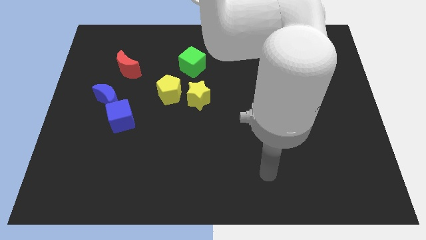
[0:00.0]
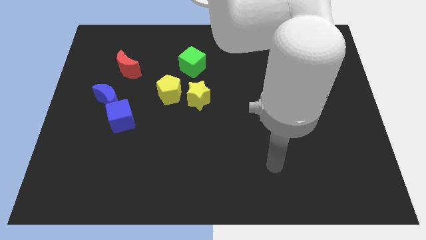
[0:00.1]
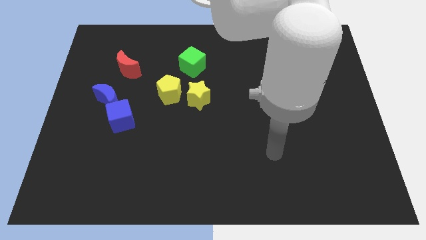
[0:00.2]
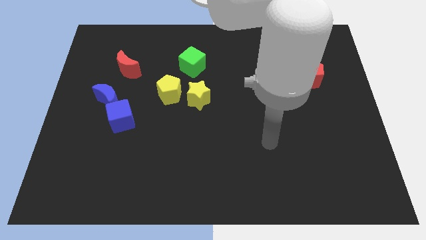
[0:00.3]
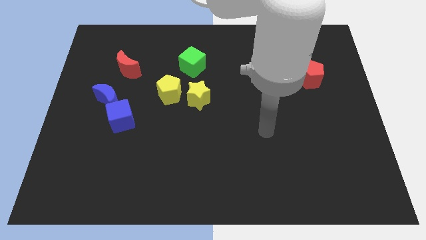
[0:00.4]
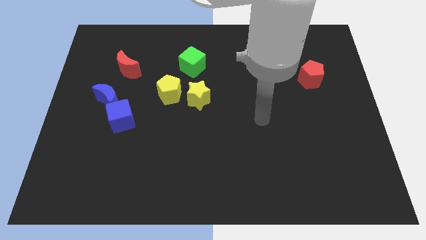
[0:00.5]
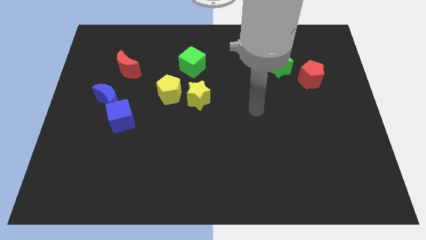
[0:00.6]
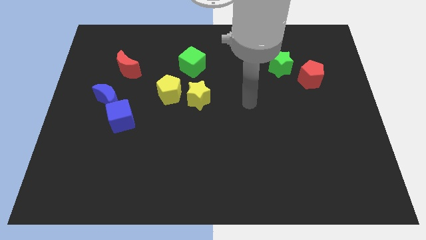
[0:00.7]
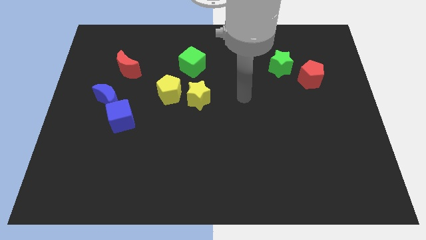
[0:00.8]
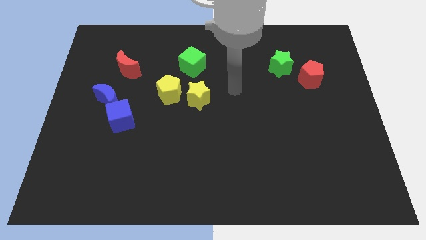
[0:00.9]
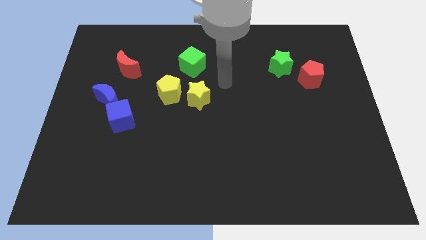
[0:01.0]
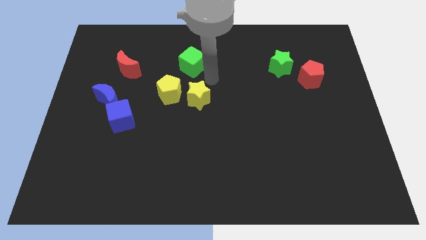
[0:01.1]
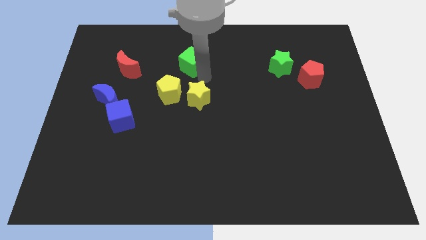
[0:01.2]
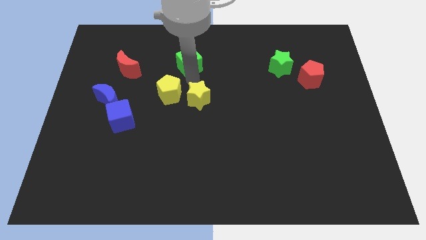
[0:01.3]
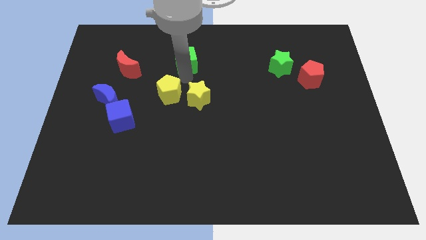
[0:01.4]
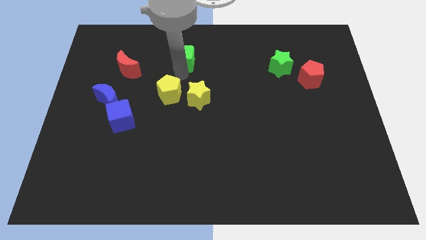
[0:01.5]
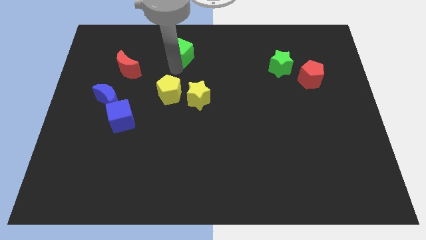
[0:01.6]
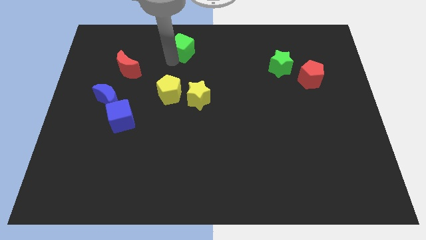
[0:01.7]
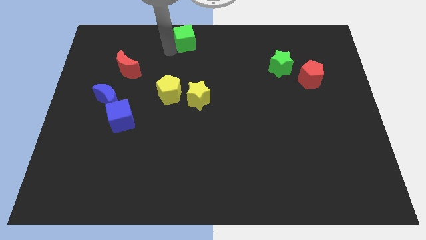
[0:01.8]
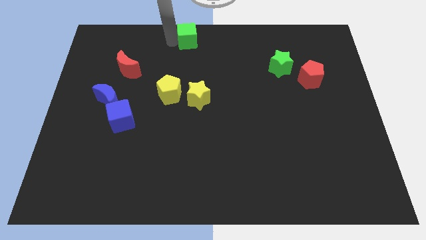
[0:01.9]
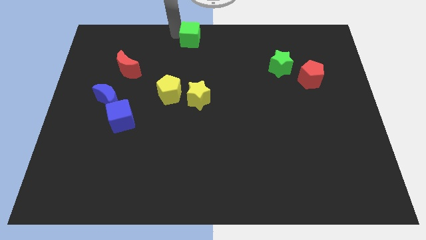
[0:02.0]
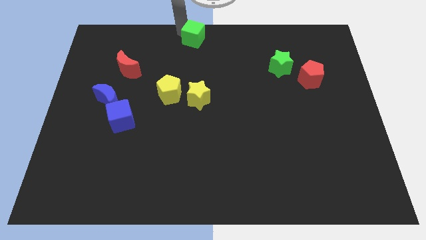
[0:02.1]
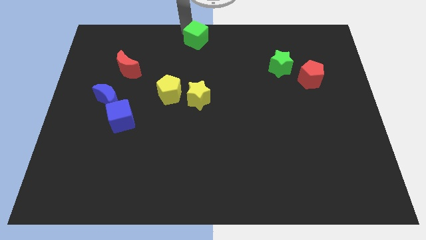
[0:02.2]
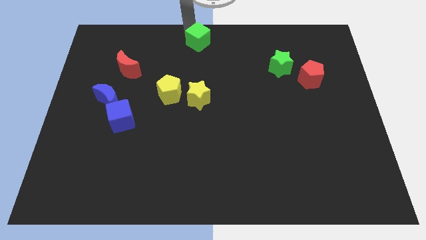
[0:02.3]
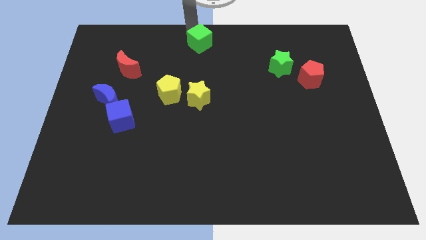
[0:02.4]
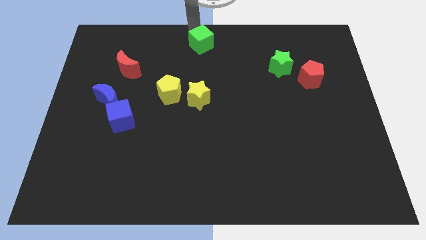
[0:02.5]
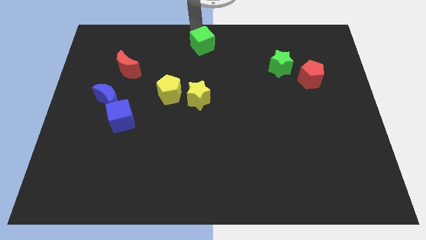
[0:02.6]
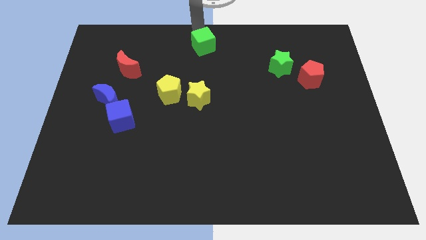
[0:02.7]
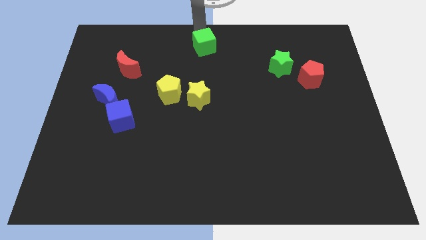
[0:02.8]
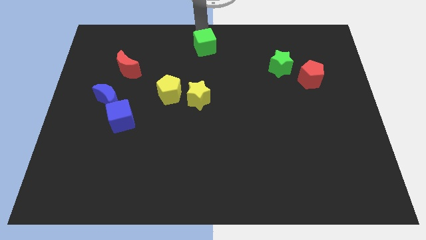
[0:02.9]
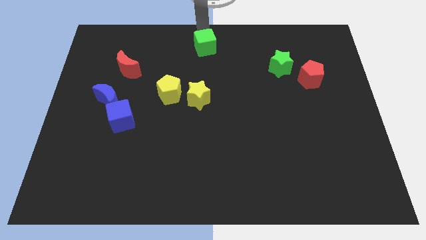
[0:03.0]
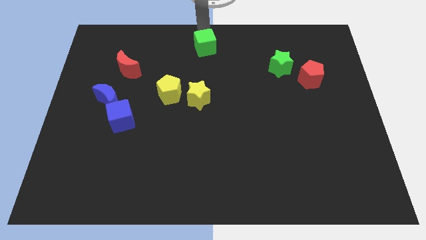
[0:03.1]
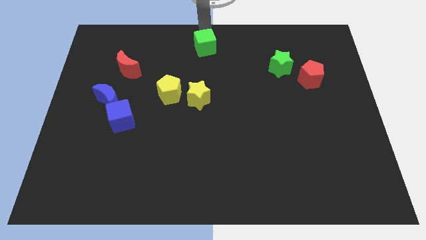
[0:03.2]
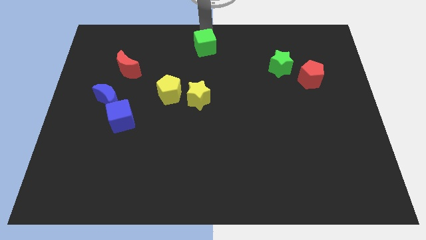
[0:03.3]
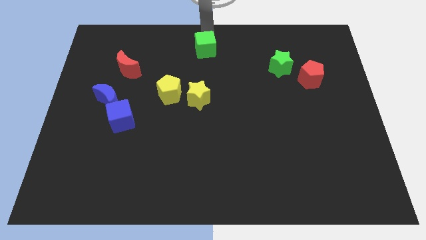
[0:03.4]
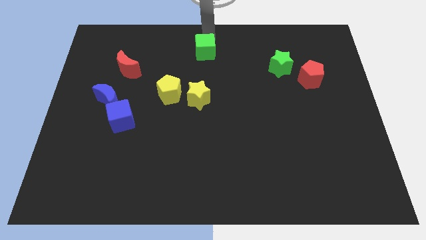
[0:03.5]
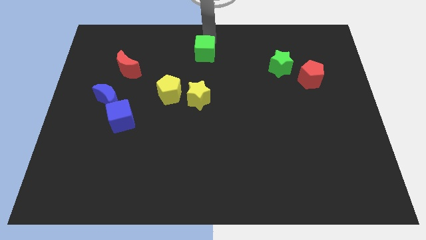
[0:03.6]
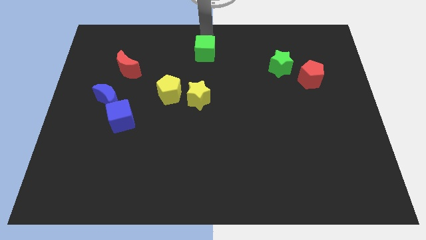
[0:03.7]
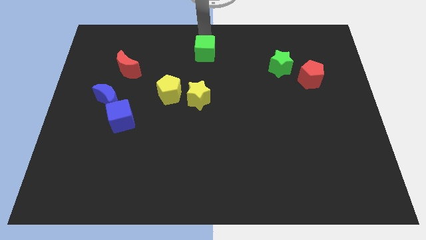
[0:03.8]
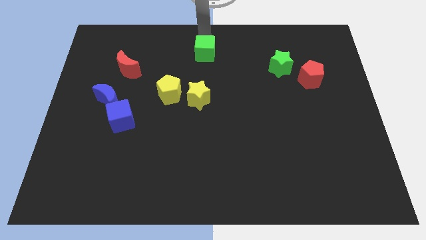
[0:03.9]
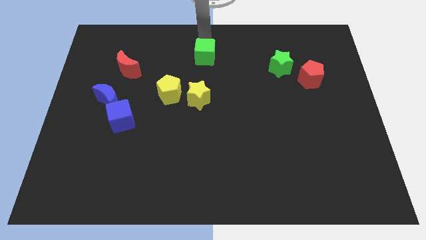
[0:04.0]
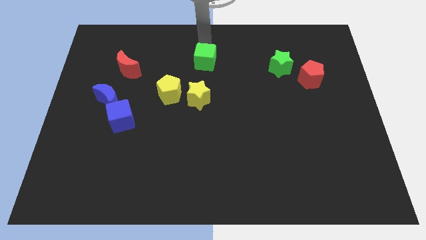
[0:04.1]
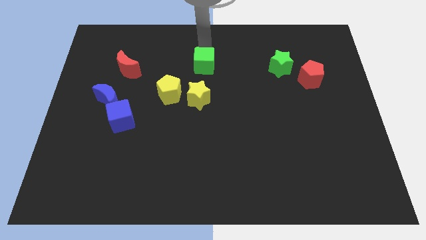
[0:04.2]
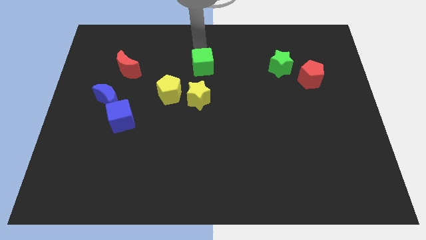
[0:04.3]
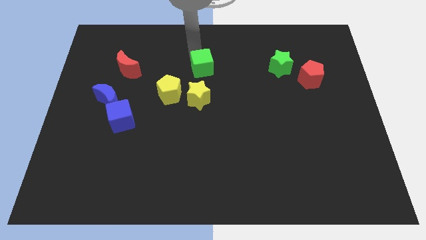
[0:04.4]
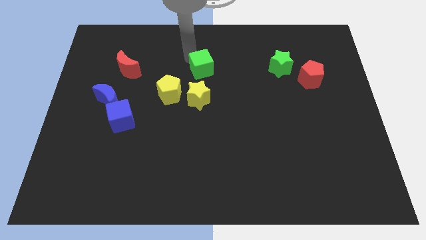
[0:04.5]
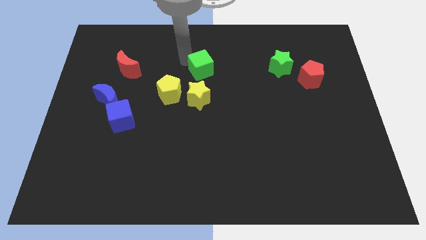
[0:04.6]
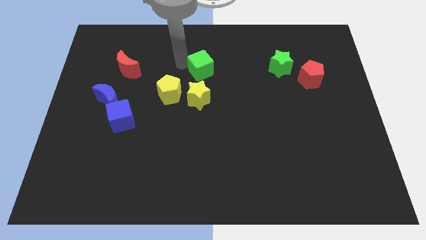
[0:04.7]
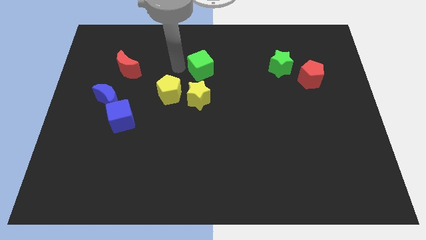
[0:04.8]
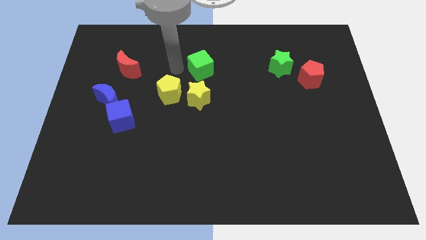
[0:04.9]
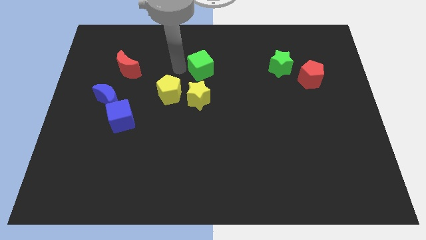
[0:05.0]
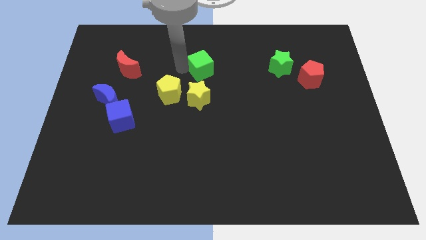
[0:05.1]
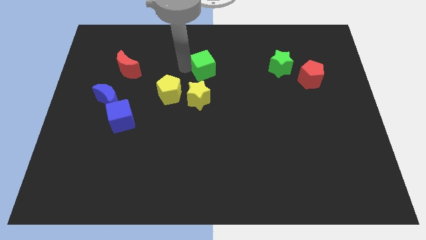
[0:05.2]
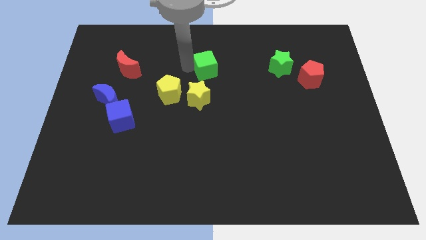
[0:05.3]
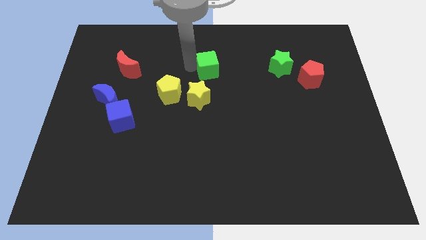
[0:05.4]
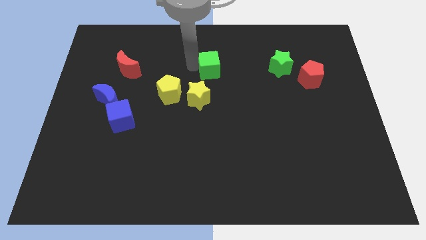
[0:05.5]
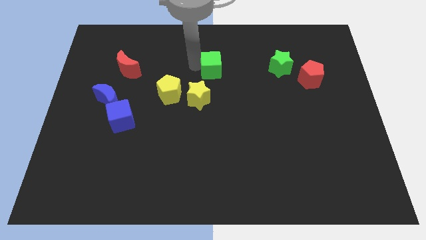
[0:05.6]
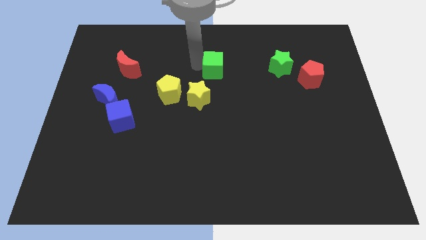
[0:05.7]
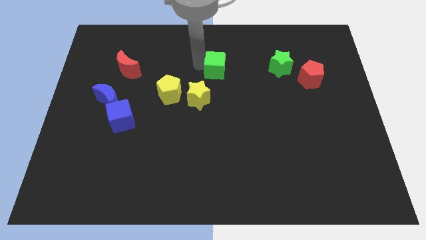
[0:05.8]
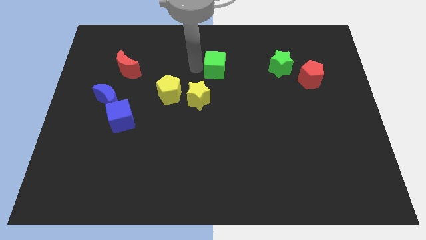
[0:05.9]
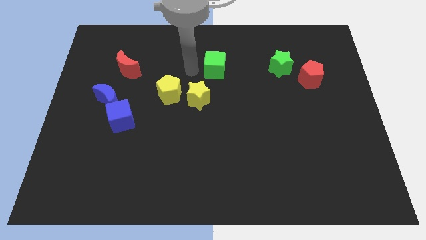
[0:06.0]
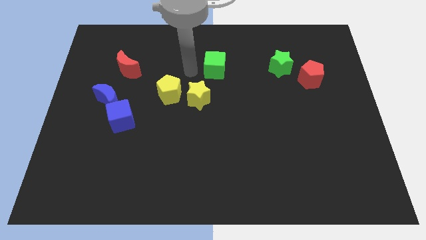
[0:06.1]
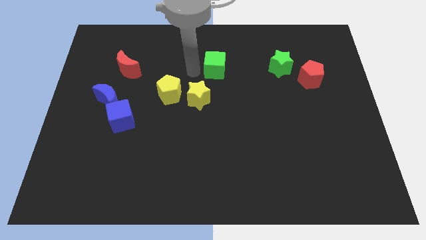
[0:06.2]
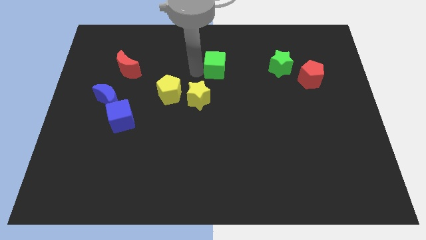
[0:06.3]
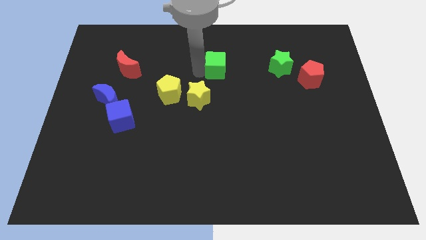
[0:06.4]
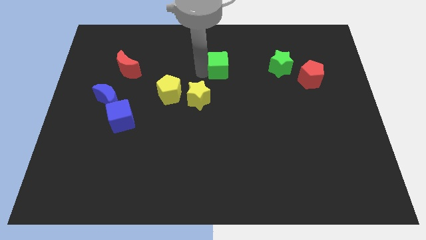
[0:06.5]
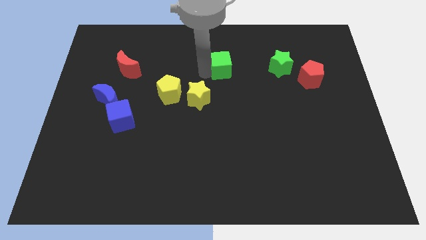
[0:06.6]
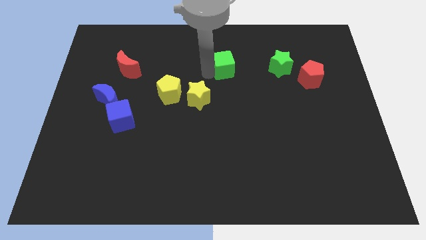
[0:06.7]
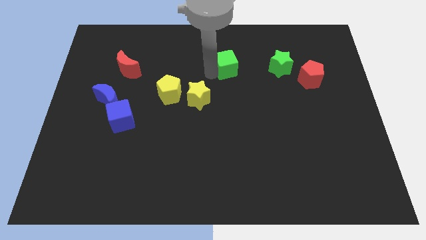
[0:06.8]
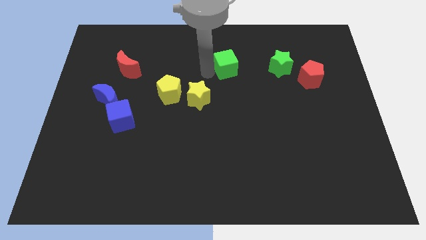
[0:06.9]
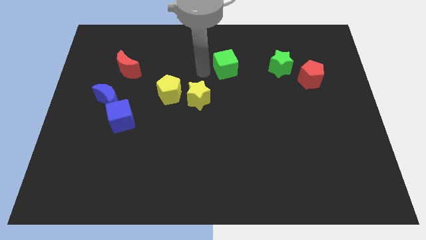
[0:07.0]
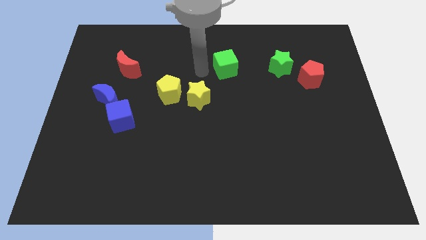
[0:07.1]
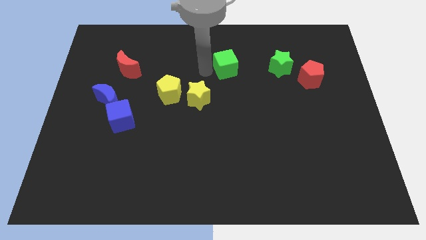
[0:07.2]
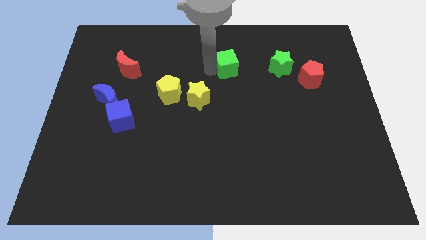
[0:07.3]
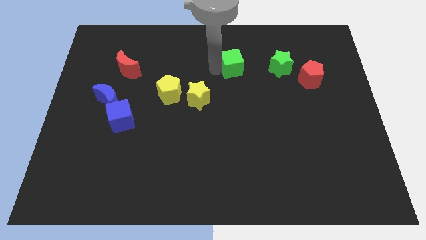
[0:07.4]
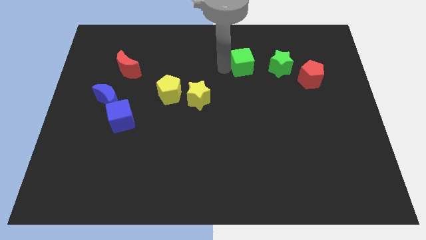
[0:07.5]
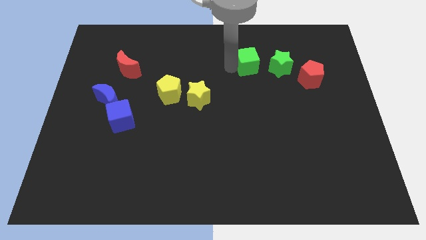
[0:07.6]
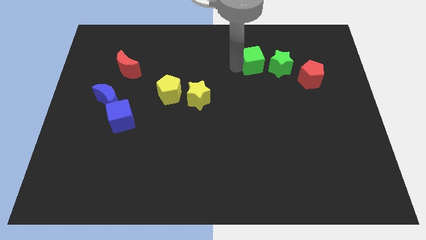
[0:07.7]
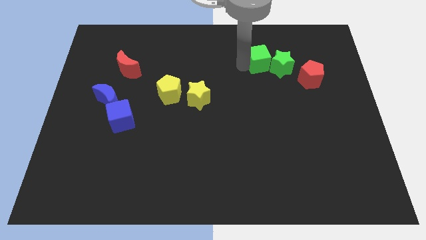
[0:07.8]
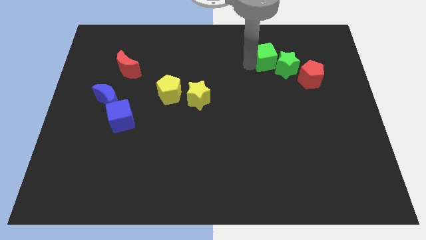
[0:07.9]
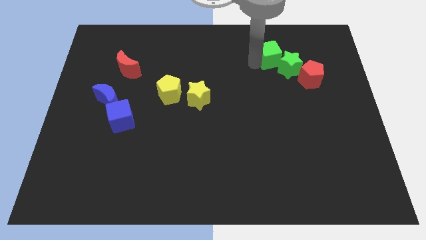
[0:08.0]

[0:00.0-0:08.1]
push the green cube diagonally up and to the left of the red pentagon
